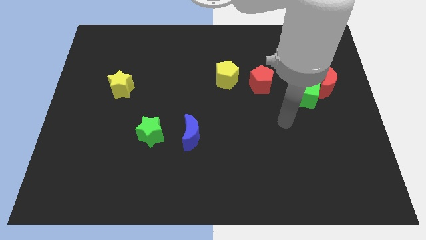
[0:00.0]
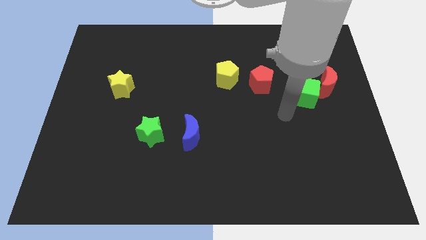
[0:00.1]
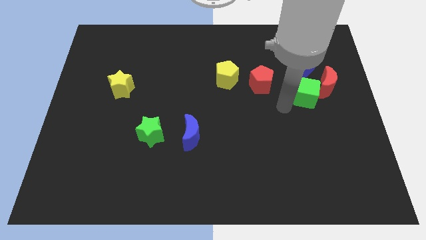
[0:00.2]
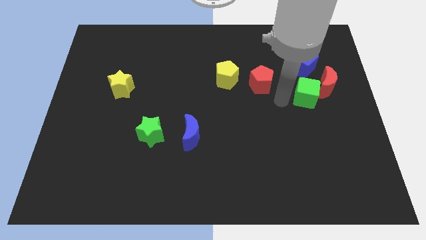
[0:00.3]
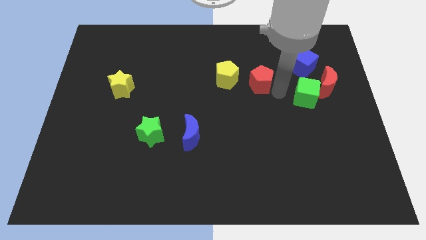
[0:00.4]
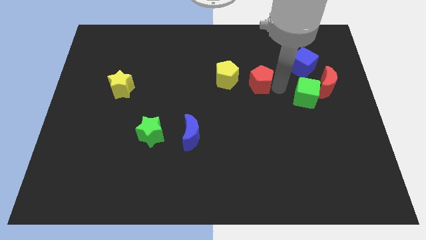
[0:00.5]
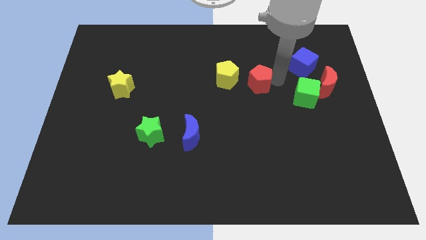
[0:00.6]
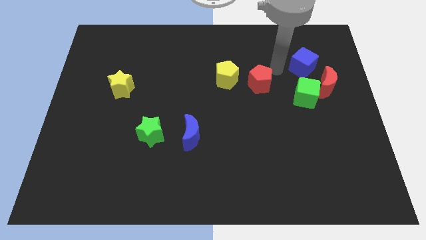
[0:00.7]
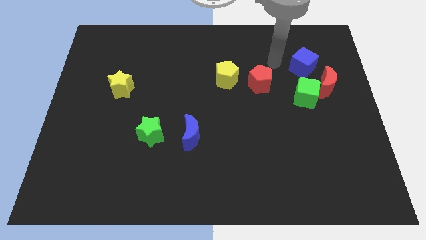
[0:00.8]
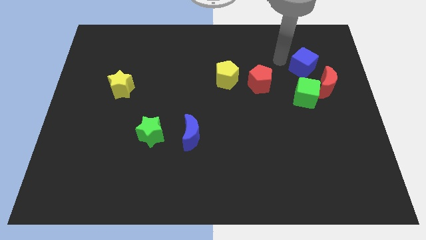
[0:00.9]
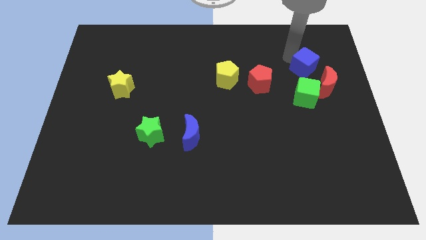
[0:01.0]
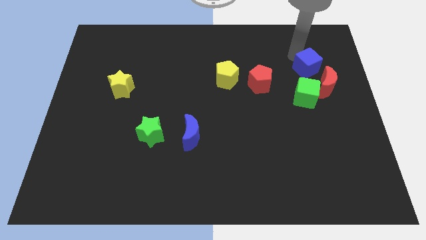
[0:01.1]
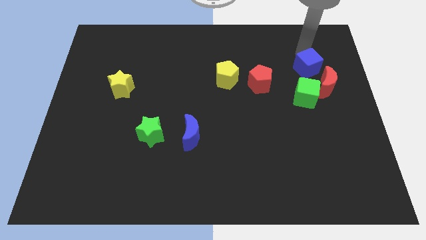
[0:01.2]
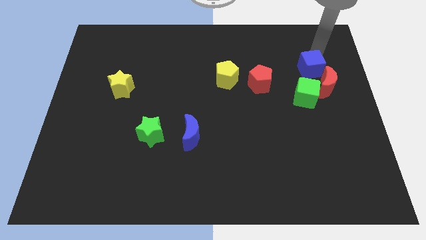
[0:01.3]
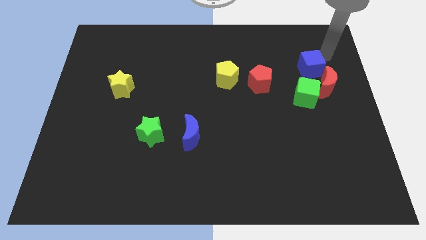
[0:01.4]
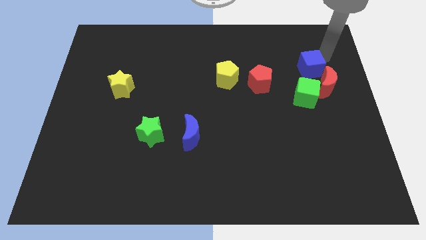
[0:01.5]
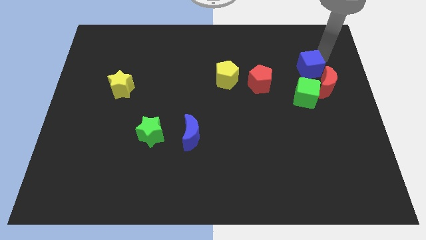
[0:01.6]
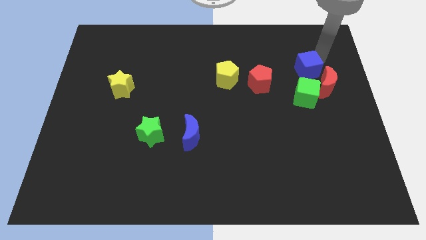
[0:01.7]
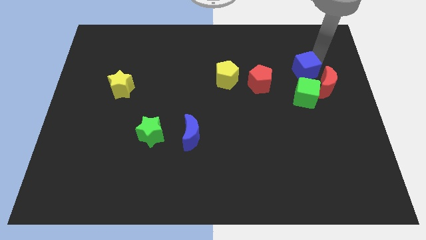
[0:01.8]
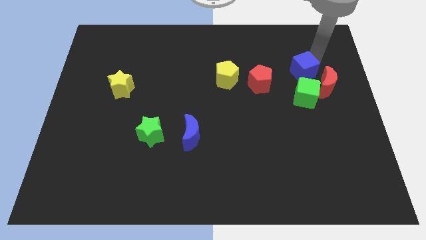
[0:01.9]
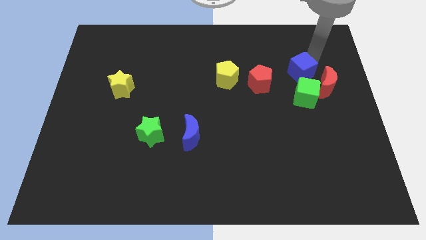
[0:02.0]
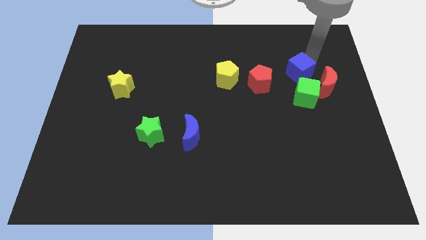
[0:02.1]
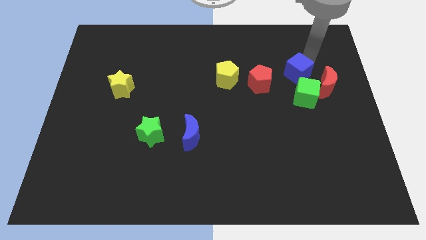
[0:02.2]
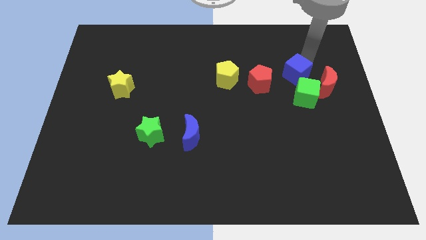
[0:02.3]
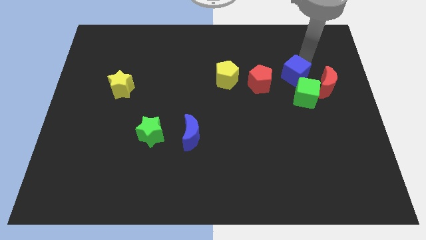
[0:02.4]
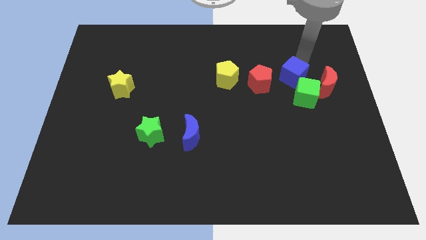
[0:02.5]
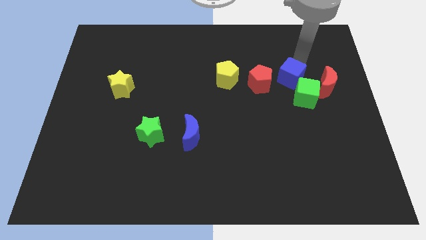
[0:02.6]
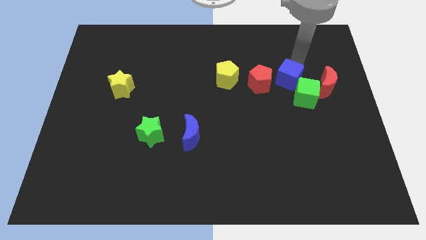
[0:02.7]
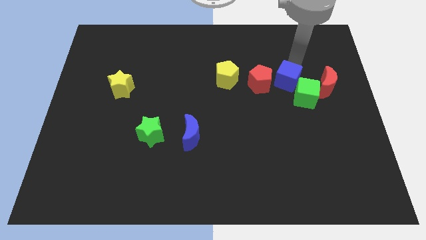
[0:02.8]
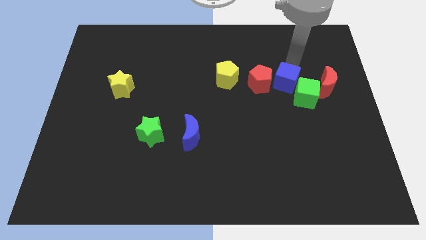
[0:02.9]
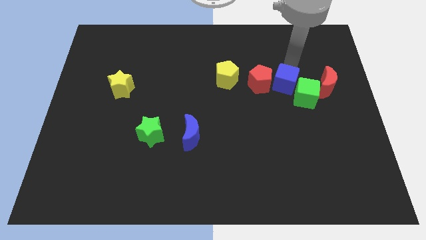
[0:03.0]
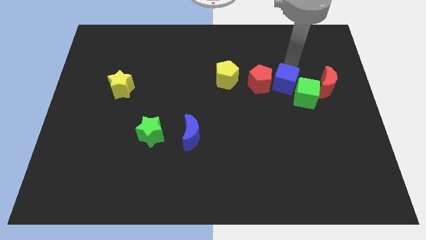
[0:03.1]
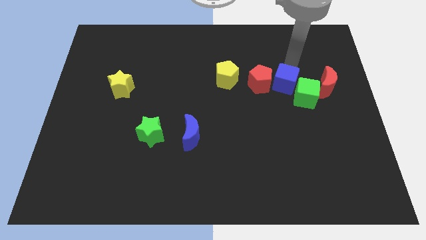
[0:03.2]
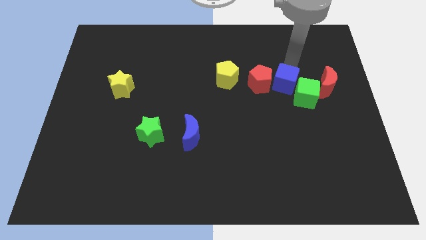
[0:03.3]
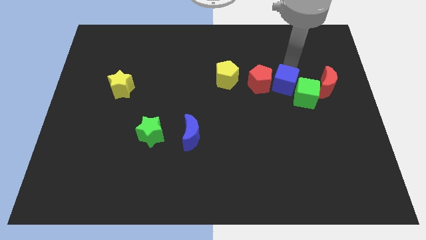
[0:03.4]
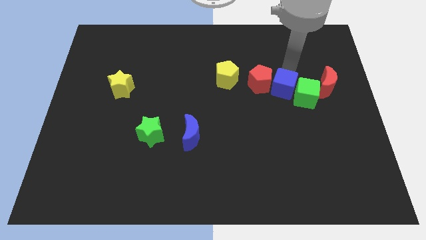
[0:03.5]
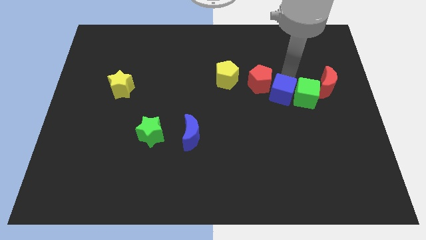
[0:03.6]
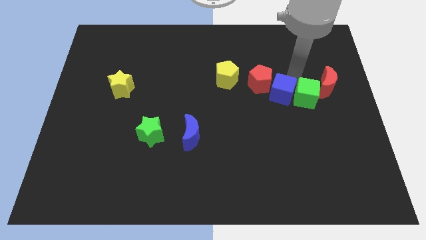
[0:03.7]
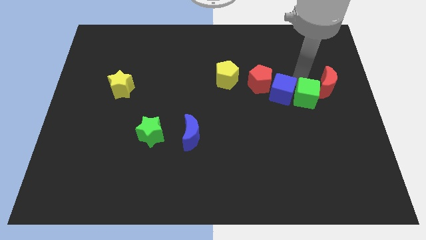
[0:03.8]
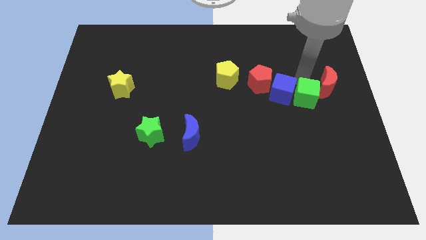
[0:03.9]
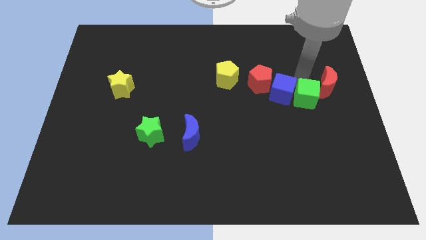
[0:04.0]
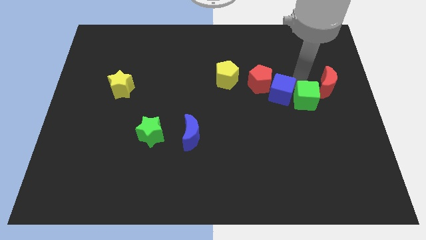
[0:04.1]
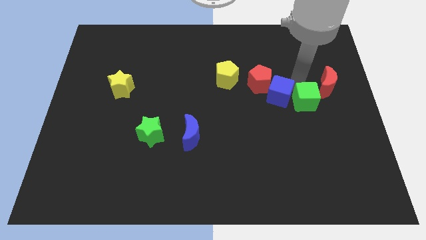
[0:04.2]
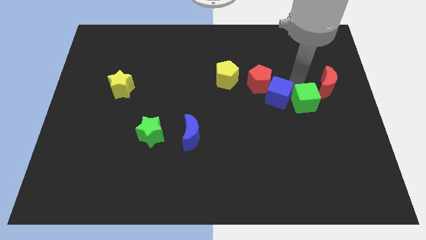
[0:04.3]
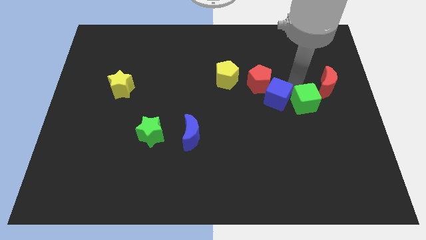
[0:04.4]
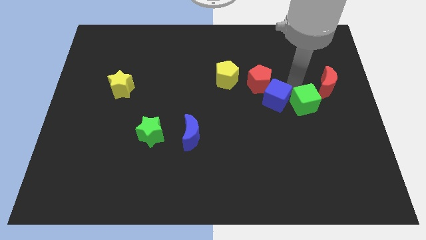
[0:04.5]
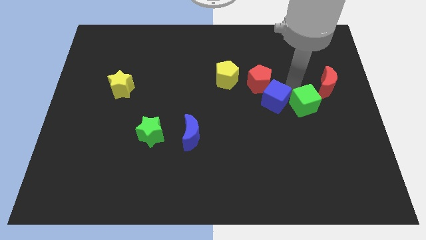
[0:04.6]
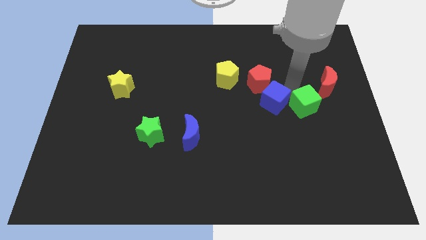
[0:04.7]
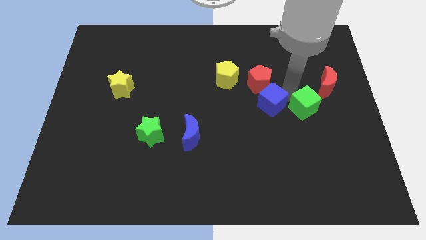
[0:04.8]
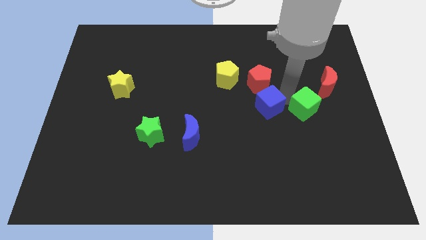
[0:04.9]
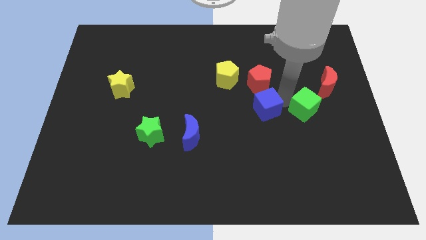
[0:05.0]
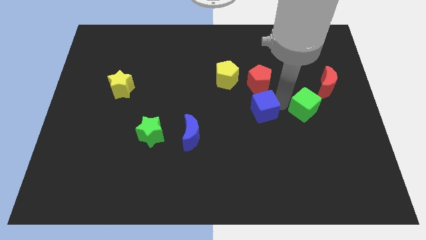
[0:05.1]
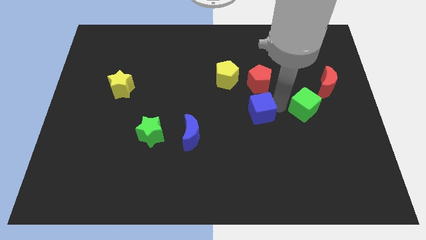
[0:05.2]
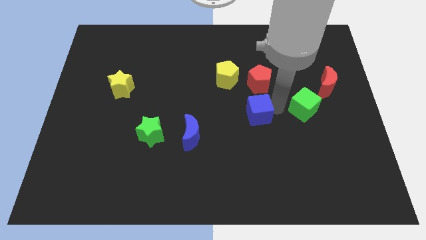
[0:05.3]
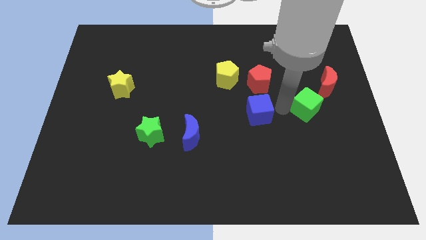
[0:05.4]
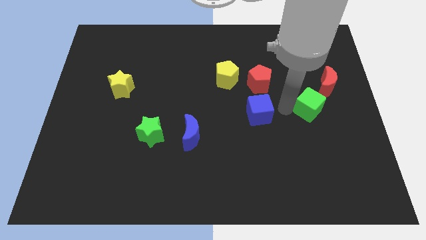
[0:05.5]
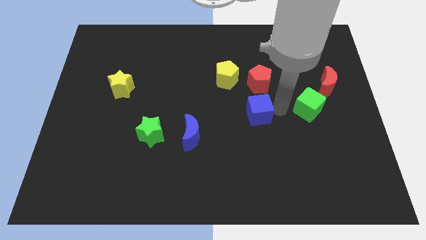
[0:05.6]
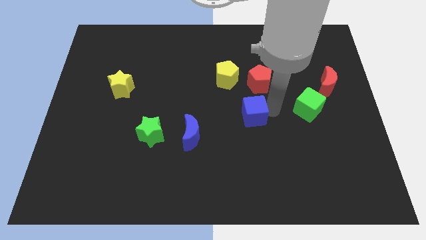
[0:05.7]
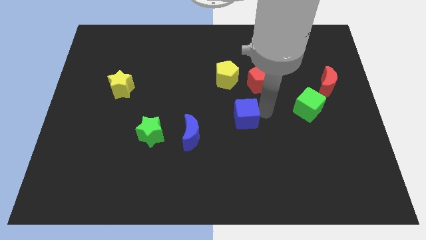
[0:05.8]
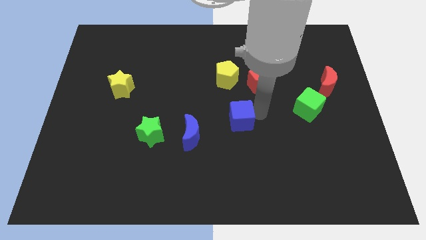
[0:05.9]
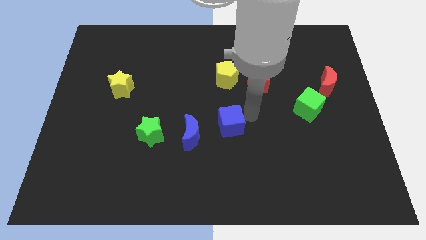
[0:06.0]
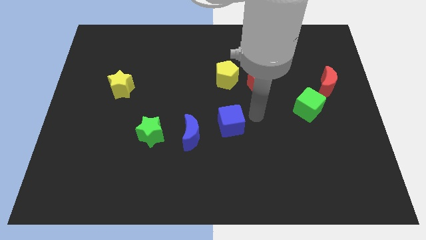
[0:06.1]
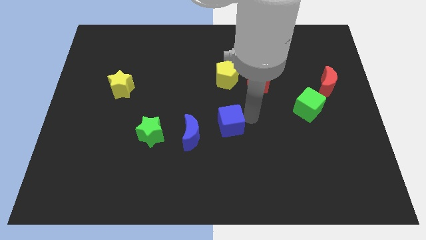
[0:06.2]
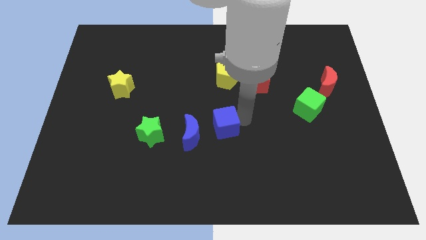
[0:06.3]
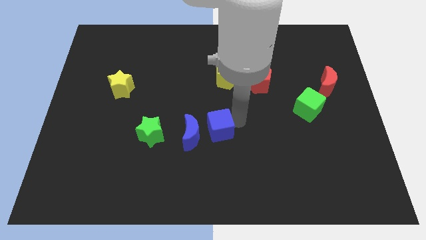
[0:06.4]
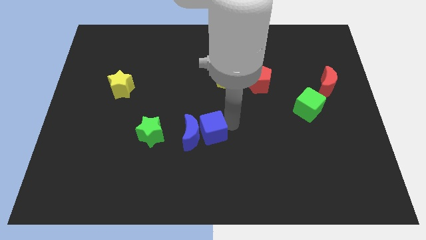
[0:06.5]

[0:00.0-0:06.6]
put the blue cube to the blue moon

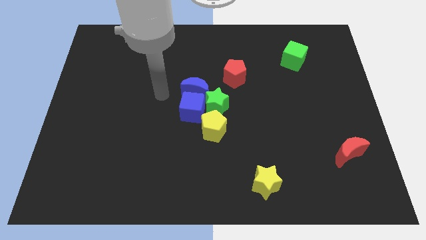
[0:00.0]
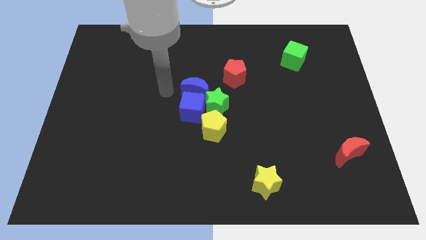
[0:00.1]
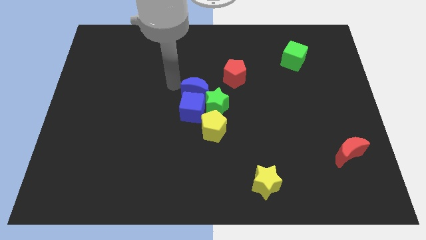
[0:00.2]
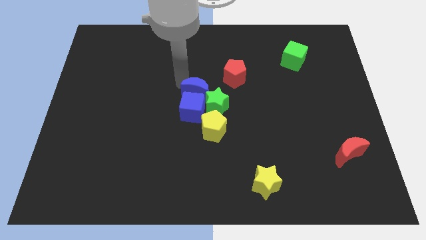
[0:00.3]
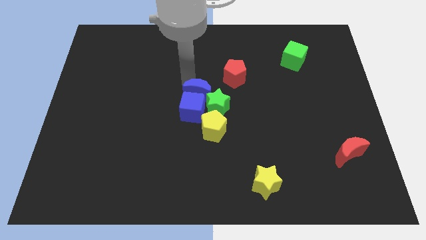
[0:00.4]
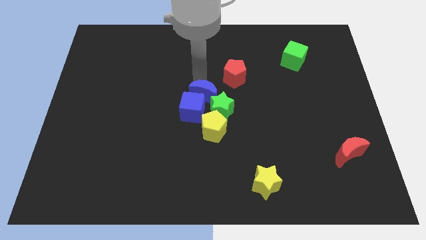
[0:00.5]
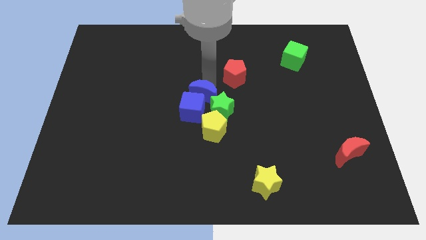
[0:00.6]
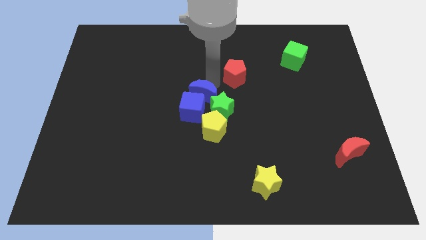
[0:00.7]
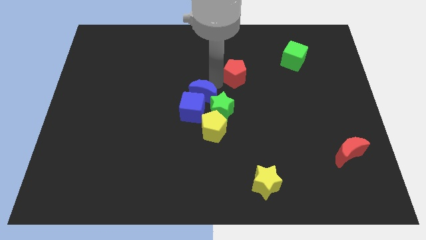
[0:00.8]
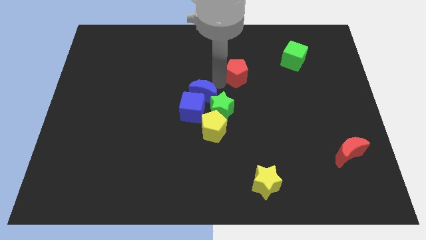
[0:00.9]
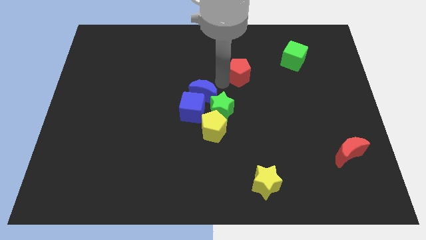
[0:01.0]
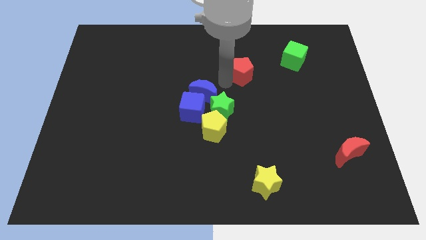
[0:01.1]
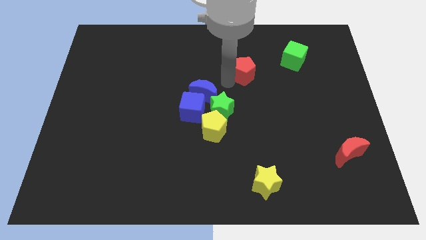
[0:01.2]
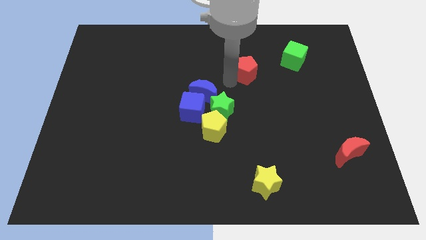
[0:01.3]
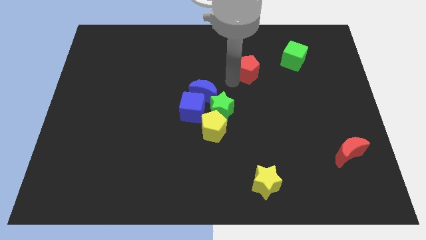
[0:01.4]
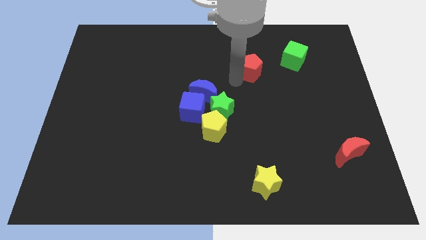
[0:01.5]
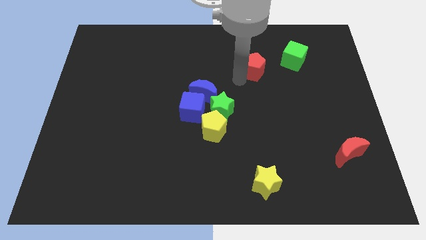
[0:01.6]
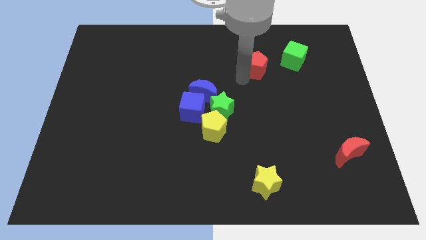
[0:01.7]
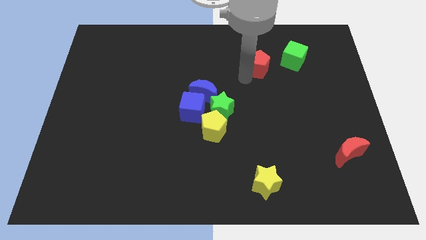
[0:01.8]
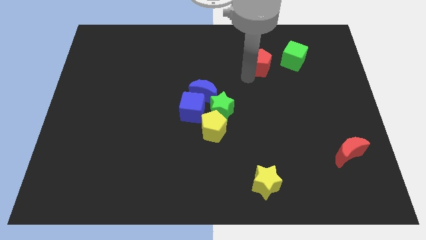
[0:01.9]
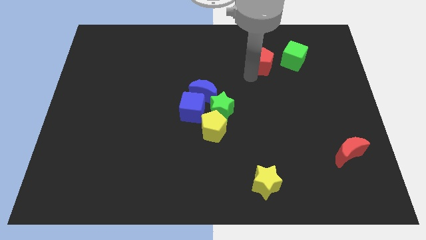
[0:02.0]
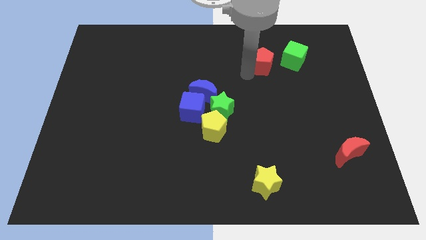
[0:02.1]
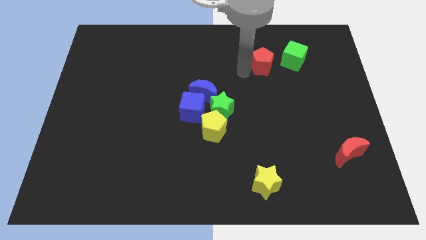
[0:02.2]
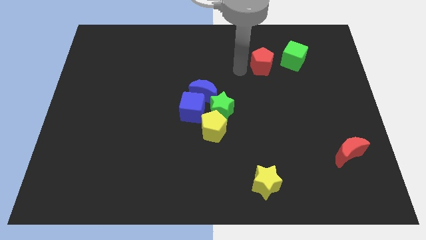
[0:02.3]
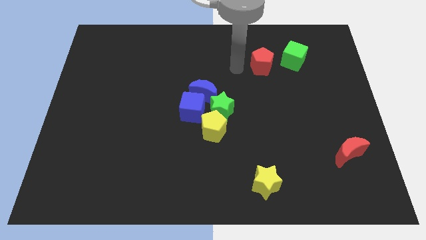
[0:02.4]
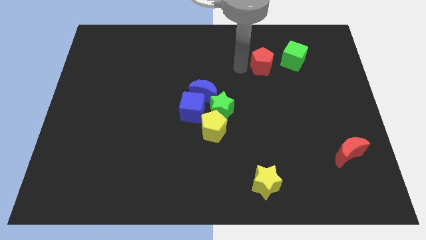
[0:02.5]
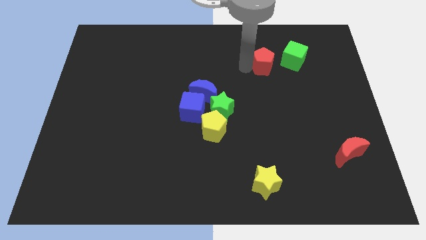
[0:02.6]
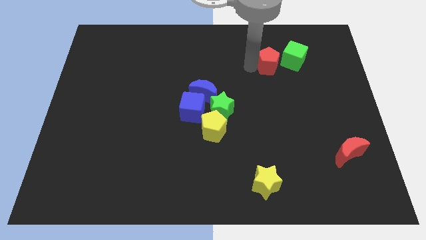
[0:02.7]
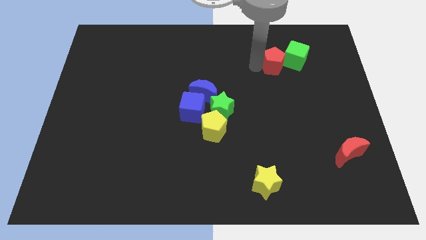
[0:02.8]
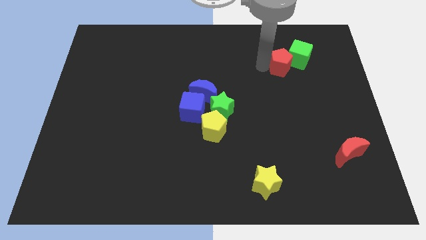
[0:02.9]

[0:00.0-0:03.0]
slide the red pentagon next to the green cube
